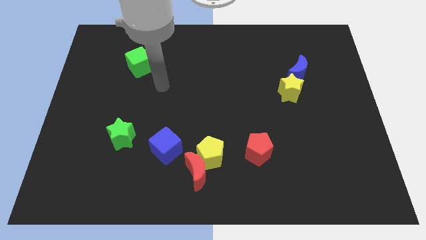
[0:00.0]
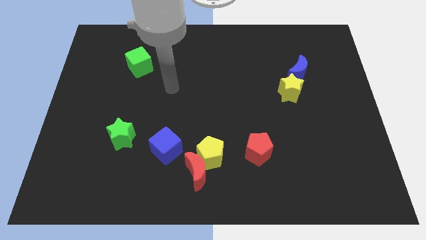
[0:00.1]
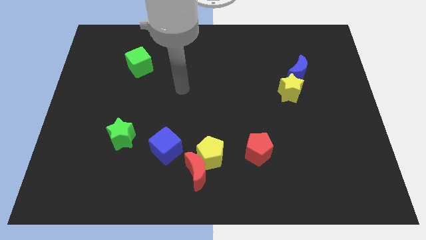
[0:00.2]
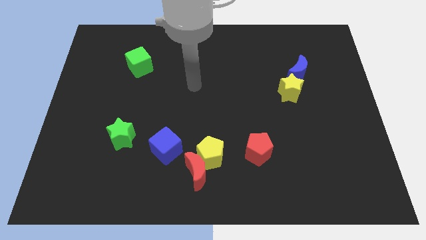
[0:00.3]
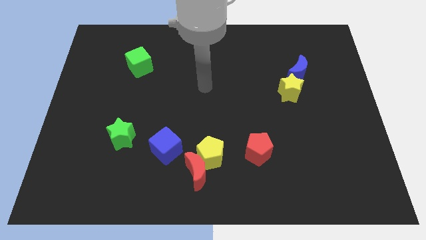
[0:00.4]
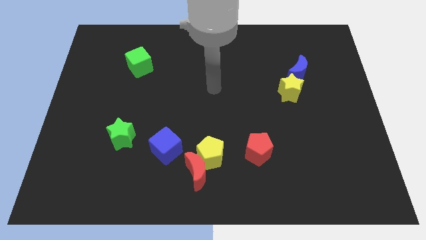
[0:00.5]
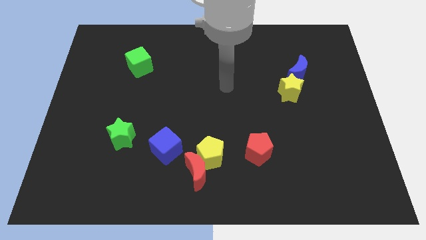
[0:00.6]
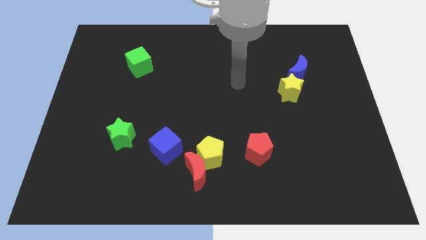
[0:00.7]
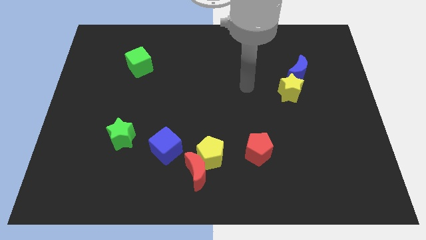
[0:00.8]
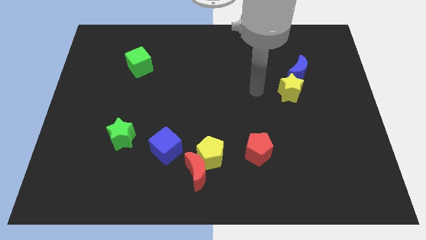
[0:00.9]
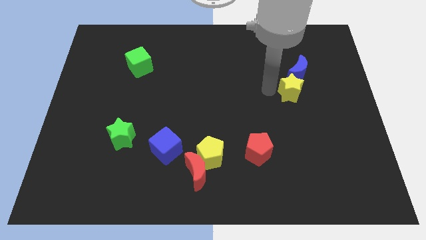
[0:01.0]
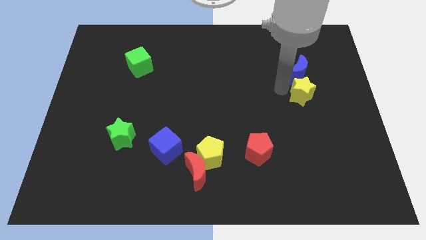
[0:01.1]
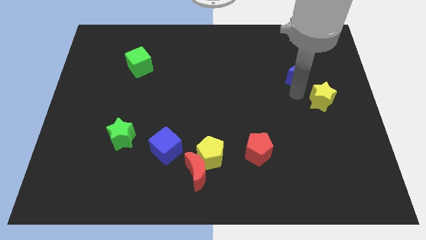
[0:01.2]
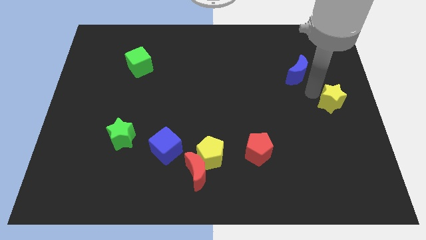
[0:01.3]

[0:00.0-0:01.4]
pull the blue moon apart from the yellow star

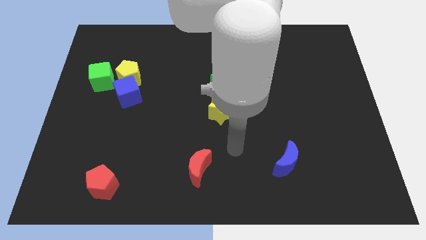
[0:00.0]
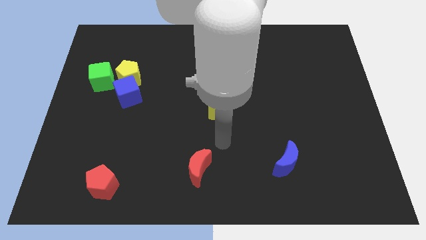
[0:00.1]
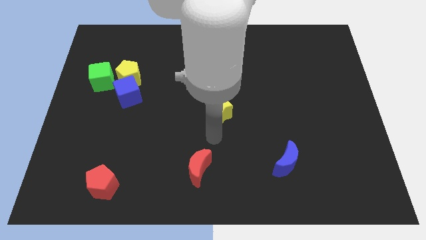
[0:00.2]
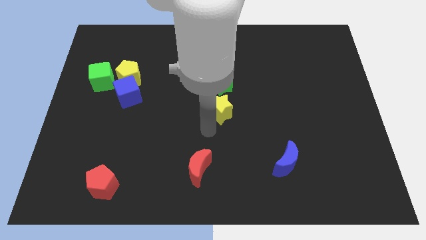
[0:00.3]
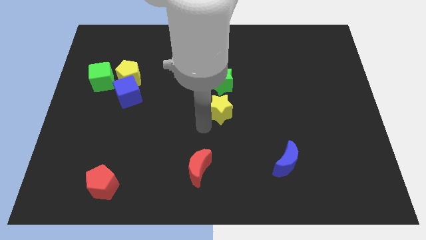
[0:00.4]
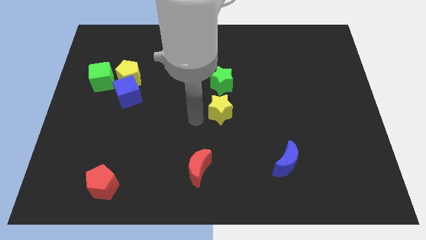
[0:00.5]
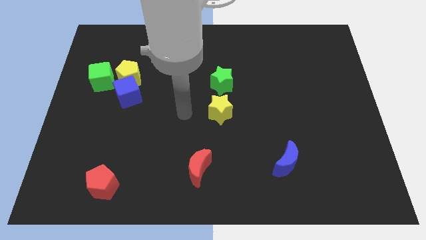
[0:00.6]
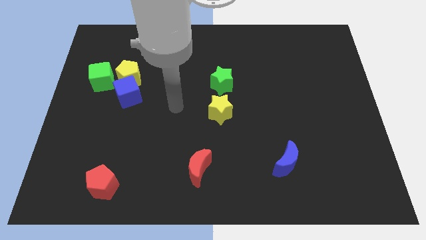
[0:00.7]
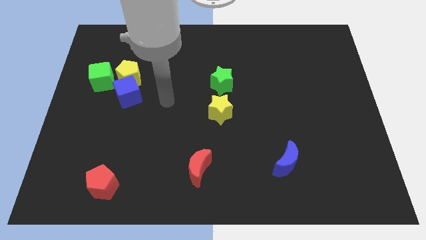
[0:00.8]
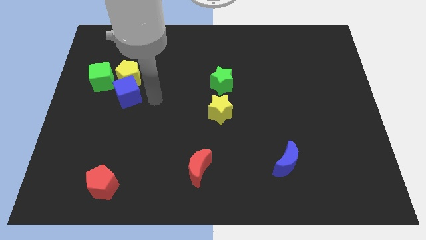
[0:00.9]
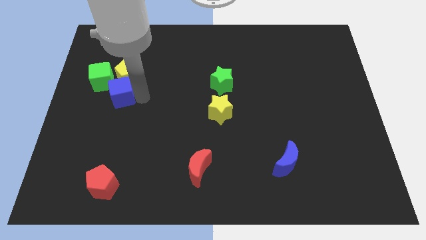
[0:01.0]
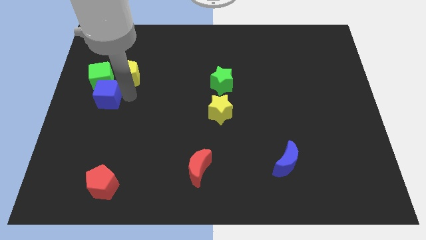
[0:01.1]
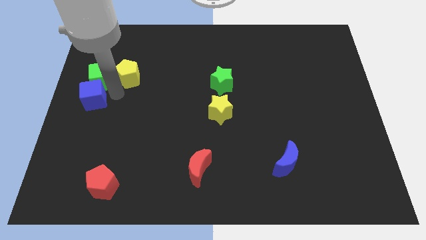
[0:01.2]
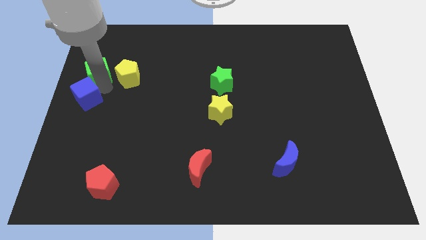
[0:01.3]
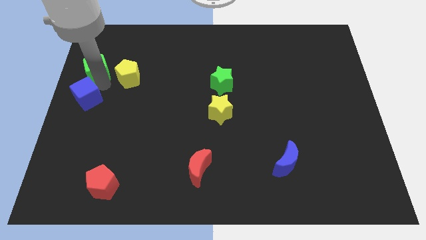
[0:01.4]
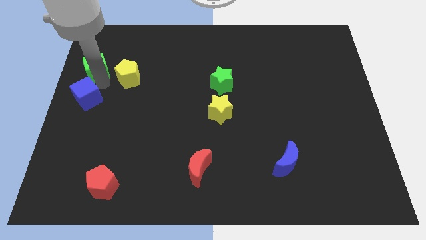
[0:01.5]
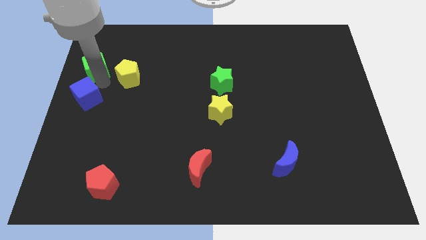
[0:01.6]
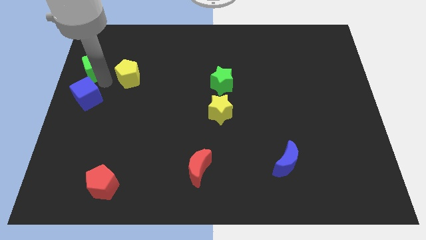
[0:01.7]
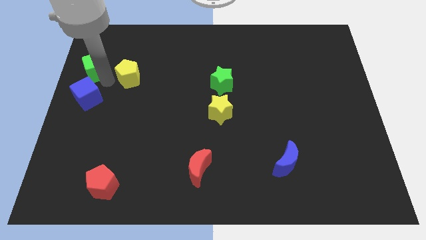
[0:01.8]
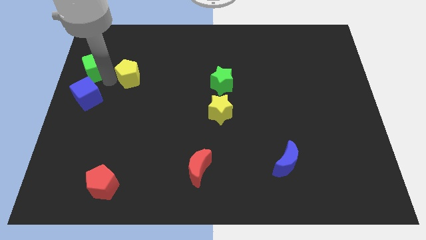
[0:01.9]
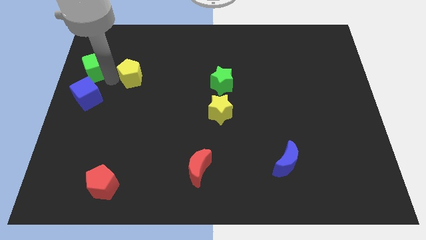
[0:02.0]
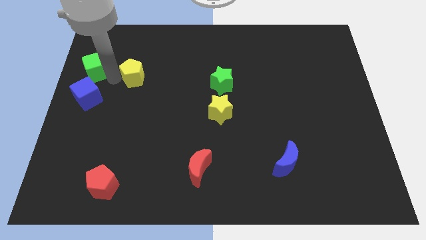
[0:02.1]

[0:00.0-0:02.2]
pull the yellow pentagon apart from the blue cube and green cube

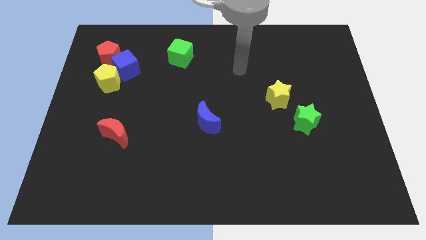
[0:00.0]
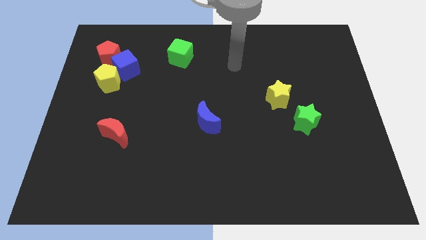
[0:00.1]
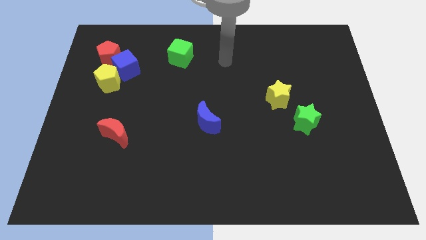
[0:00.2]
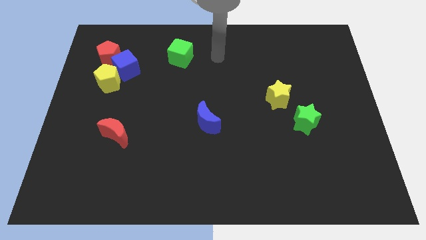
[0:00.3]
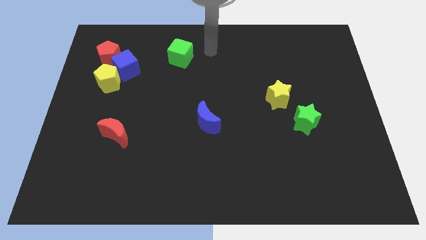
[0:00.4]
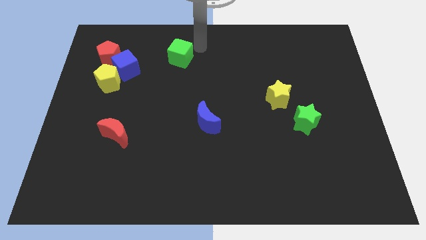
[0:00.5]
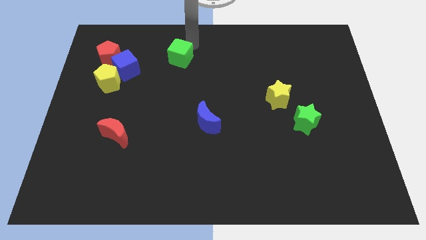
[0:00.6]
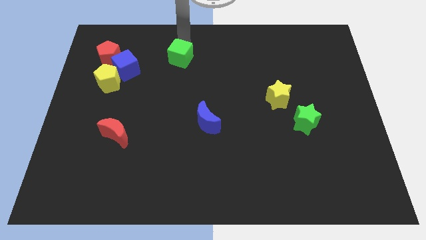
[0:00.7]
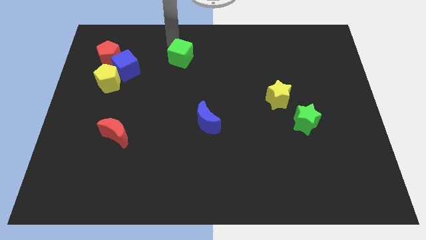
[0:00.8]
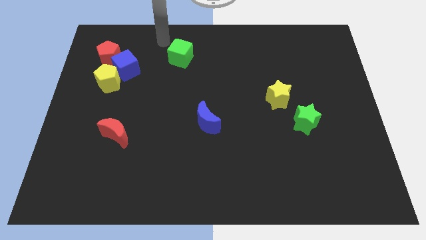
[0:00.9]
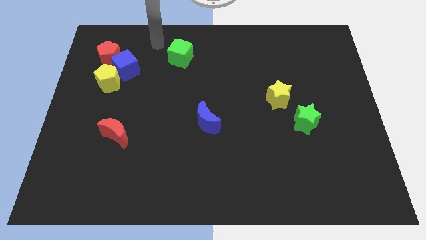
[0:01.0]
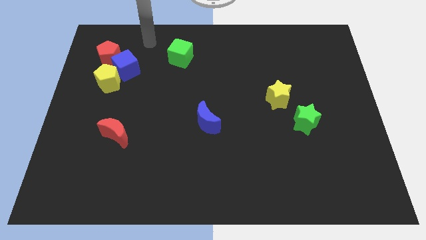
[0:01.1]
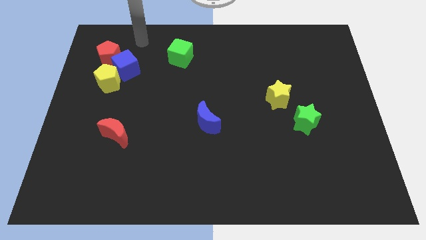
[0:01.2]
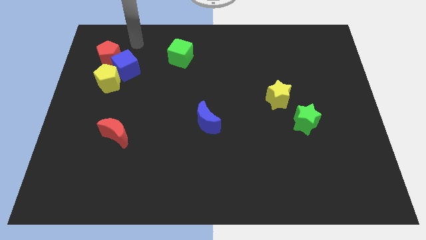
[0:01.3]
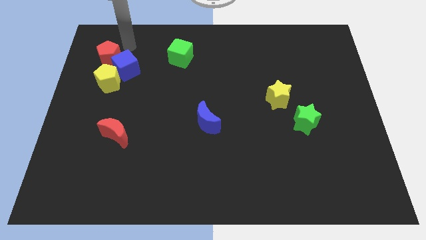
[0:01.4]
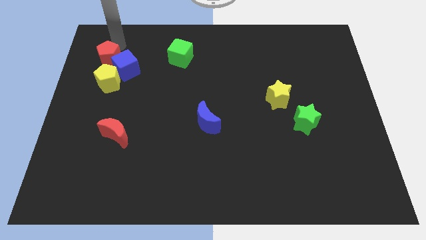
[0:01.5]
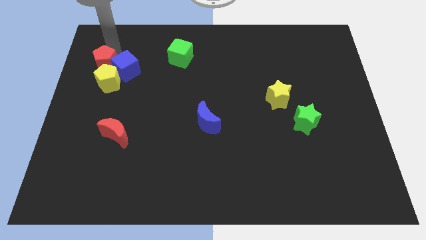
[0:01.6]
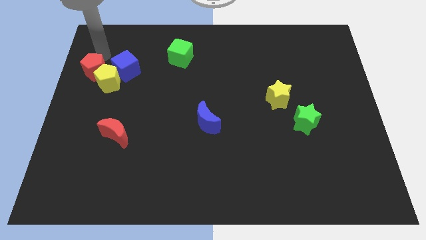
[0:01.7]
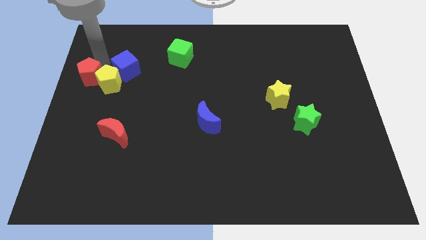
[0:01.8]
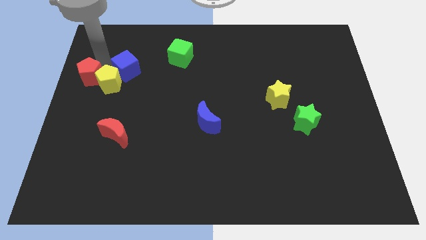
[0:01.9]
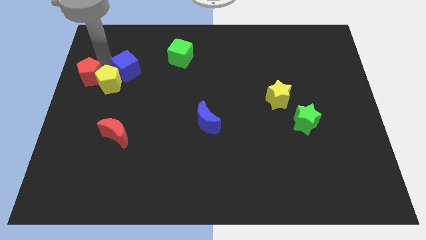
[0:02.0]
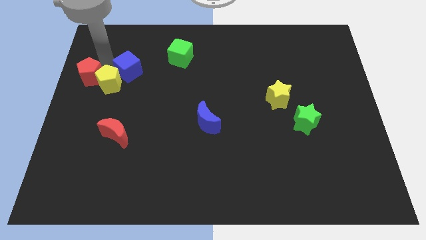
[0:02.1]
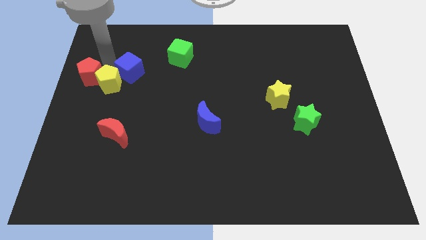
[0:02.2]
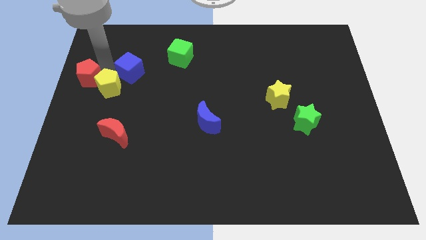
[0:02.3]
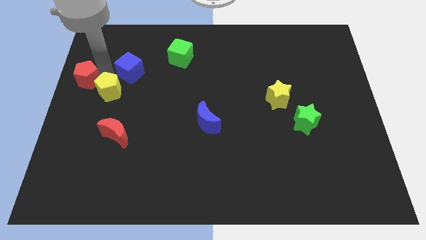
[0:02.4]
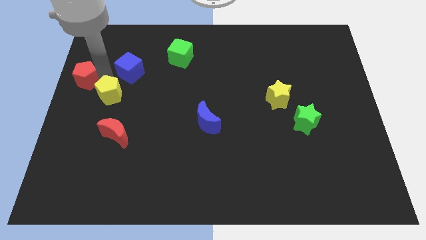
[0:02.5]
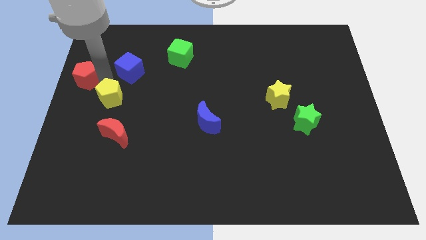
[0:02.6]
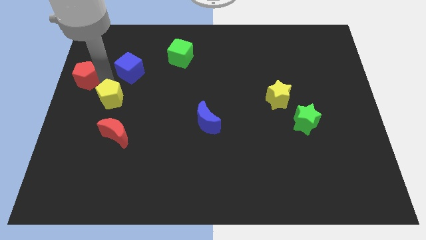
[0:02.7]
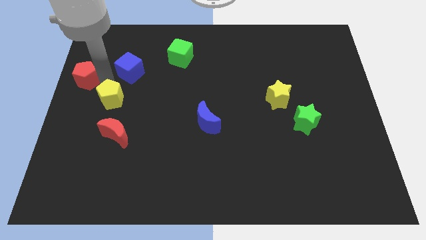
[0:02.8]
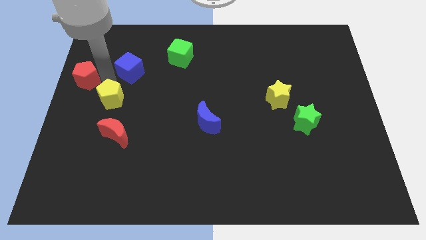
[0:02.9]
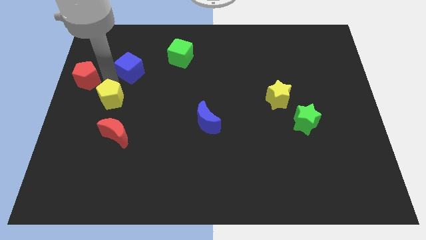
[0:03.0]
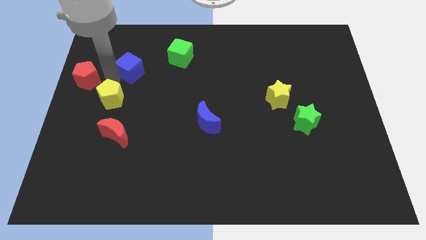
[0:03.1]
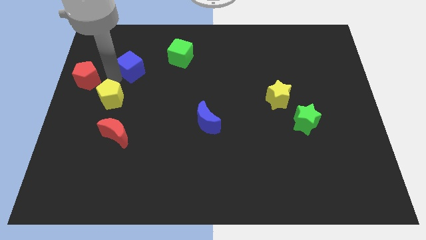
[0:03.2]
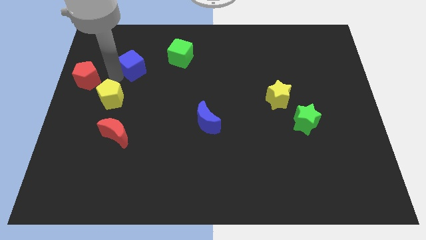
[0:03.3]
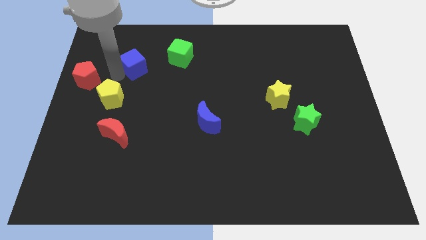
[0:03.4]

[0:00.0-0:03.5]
pull the blue cube apart from the yellow pentagon and red pentagon

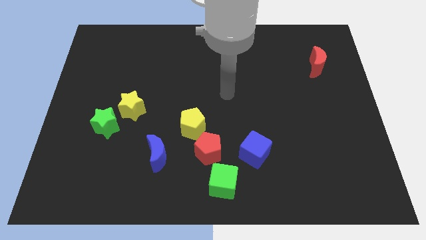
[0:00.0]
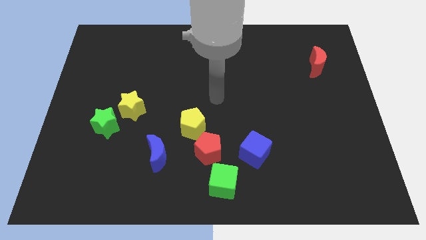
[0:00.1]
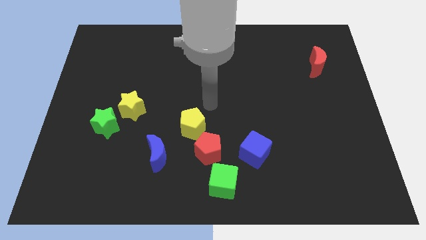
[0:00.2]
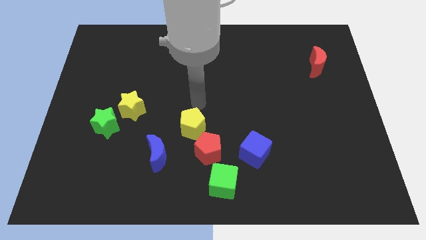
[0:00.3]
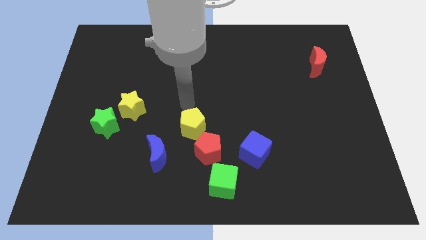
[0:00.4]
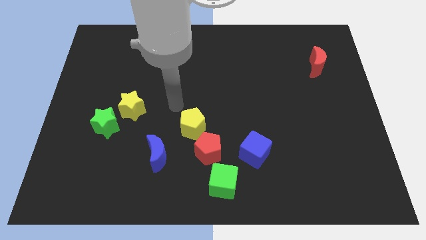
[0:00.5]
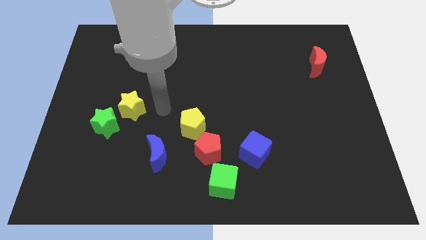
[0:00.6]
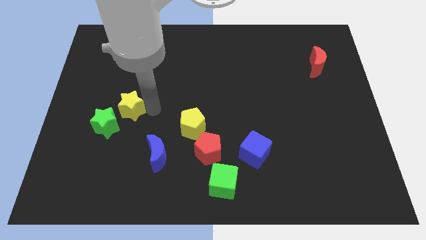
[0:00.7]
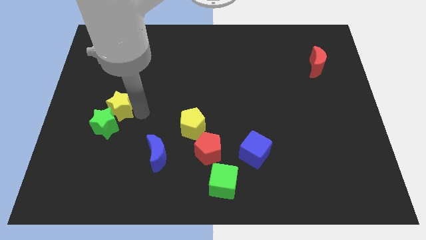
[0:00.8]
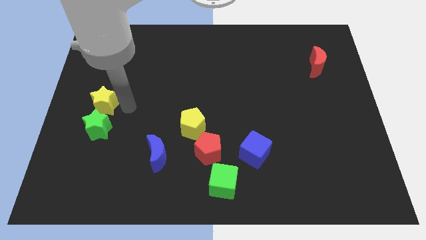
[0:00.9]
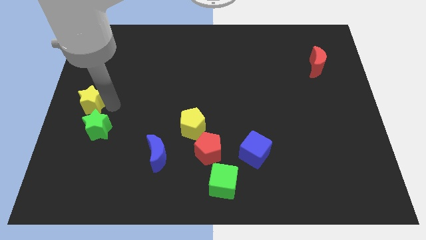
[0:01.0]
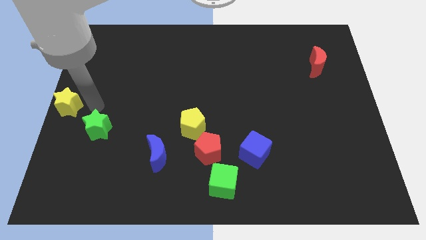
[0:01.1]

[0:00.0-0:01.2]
pull the green star apart from the yellow star

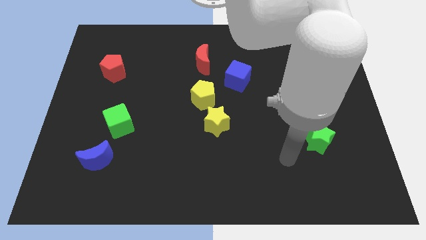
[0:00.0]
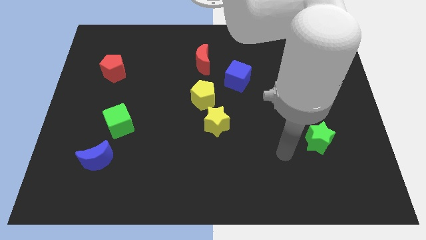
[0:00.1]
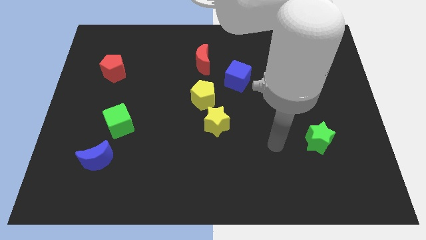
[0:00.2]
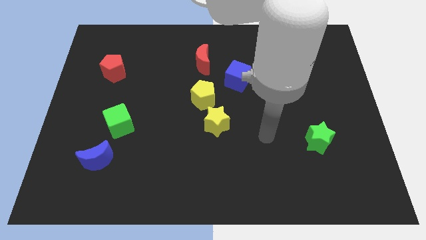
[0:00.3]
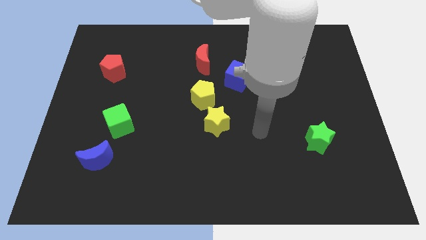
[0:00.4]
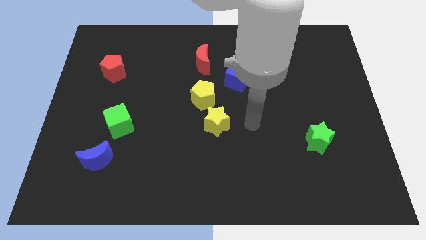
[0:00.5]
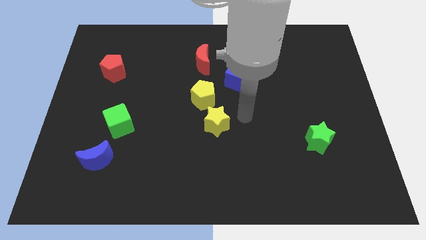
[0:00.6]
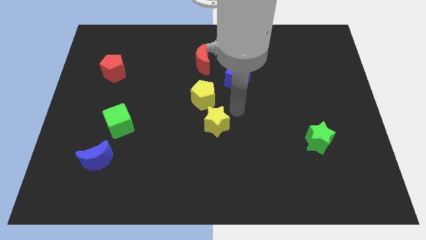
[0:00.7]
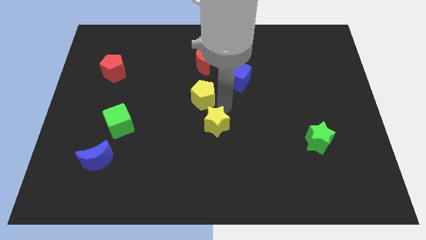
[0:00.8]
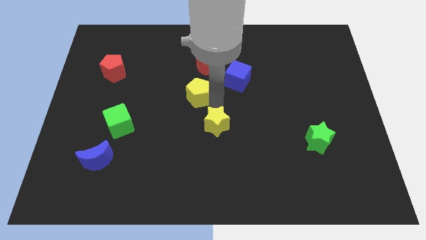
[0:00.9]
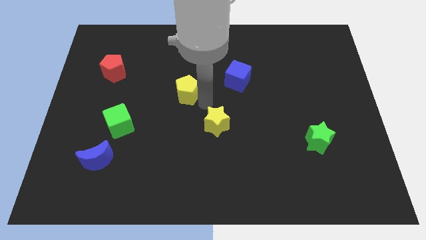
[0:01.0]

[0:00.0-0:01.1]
separate the yellow star from the yellow pentagon
